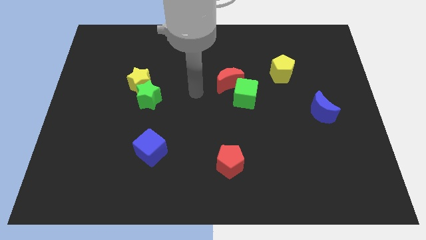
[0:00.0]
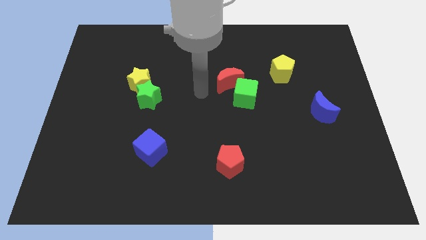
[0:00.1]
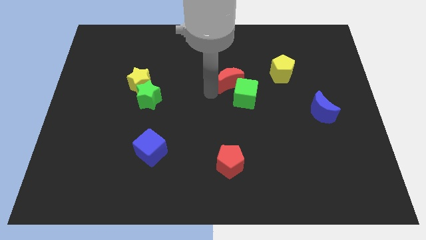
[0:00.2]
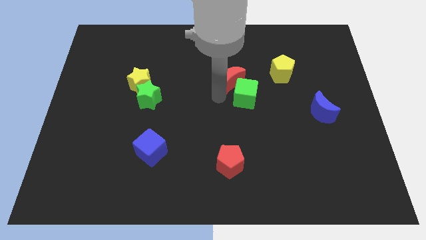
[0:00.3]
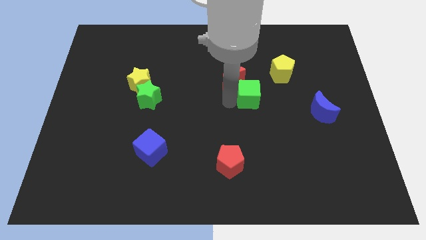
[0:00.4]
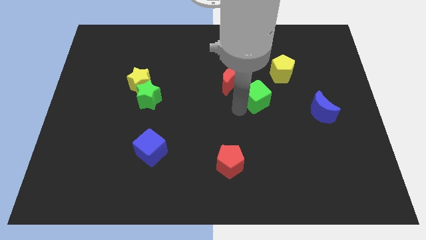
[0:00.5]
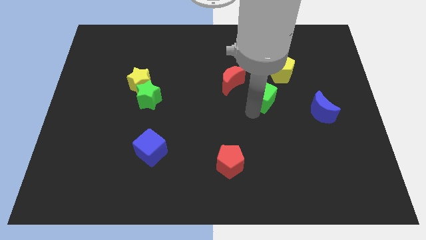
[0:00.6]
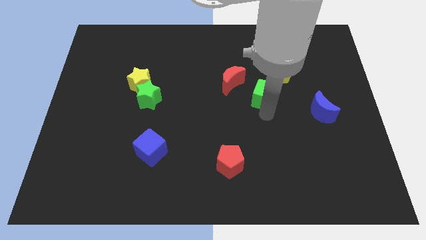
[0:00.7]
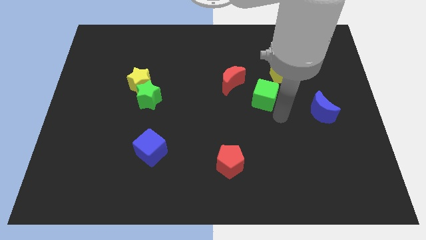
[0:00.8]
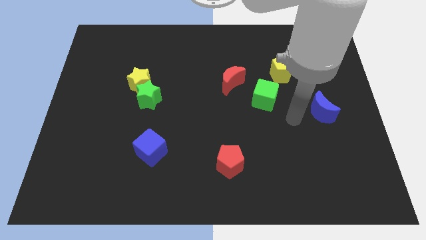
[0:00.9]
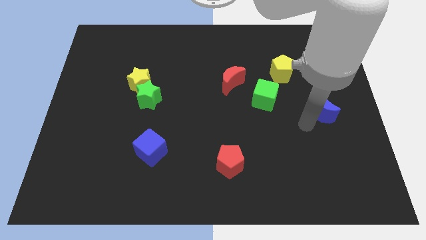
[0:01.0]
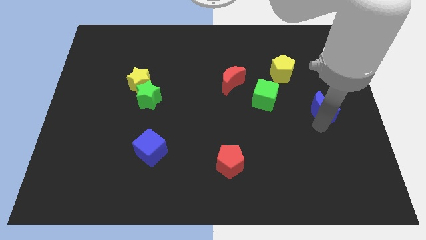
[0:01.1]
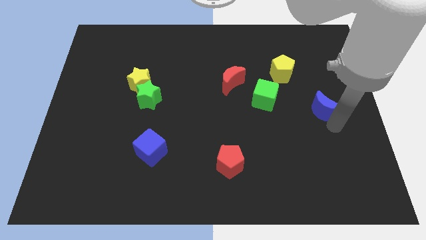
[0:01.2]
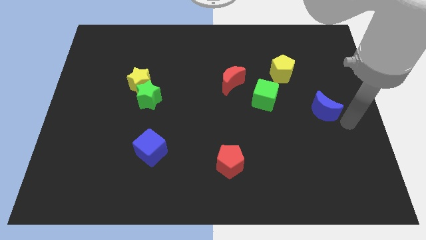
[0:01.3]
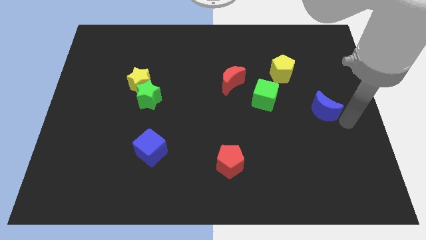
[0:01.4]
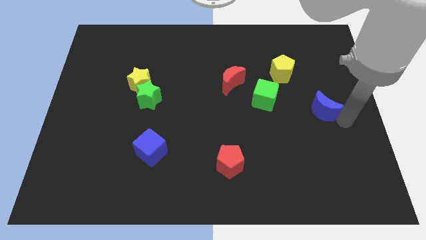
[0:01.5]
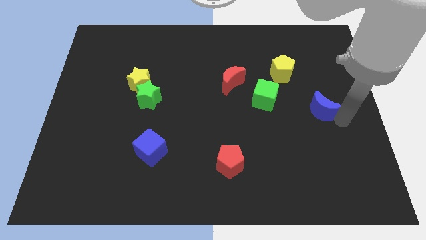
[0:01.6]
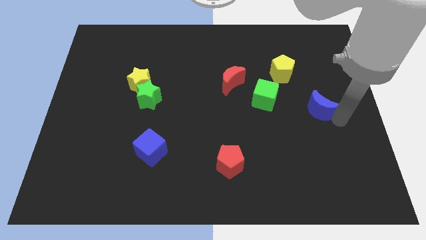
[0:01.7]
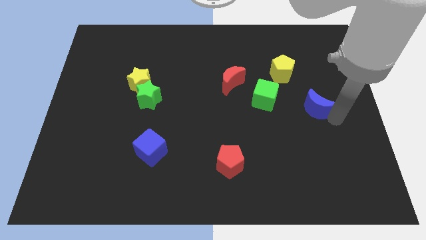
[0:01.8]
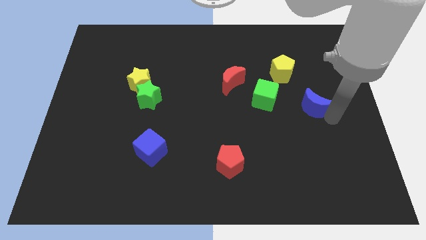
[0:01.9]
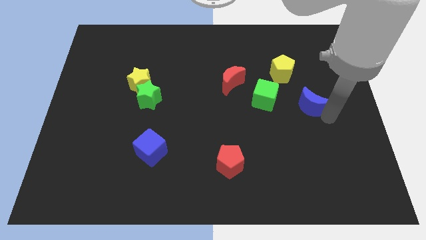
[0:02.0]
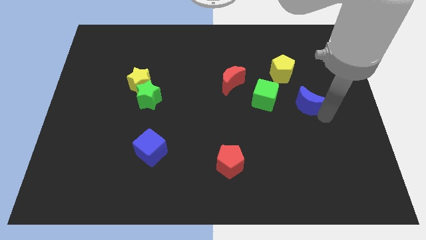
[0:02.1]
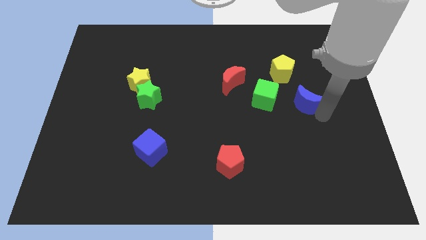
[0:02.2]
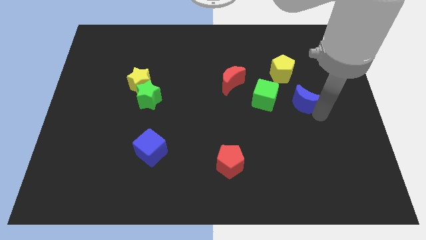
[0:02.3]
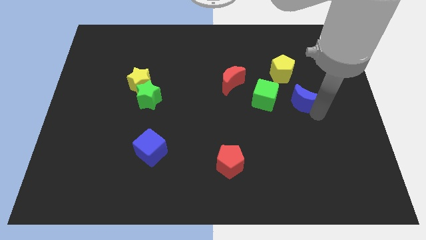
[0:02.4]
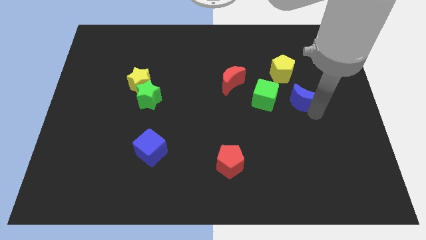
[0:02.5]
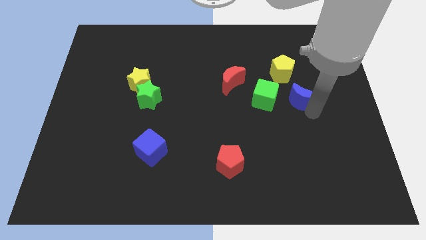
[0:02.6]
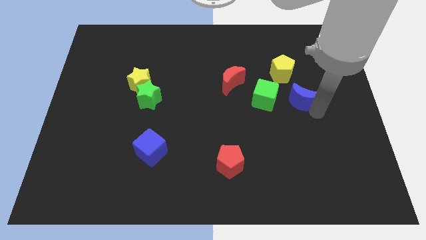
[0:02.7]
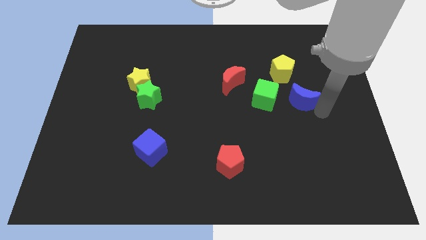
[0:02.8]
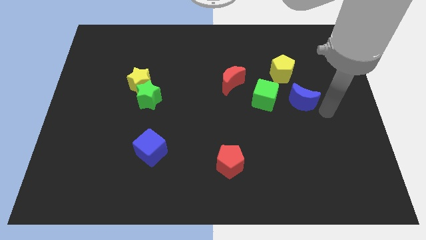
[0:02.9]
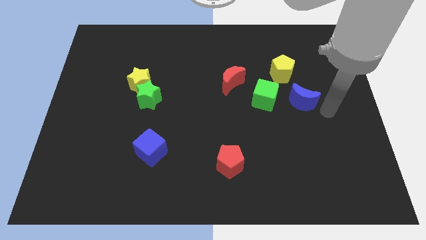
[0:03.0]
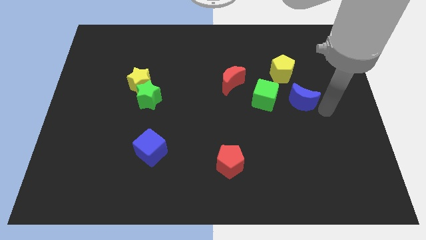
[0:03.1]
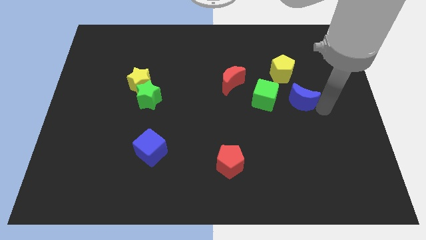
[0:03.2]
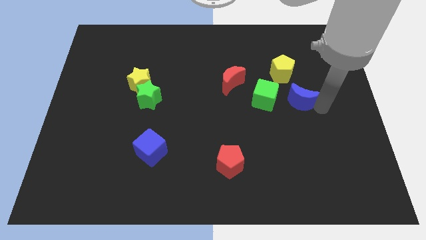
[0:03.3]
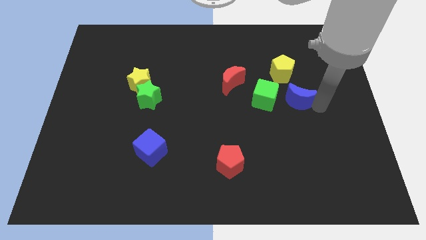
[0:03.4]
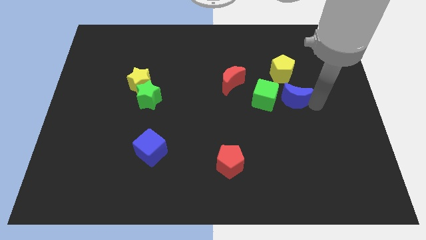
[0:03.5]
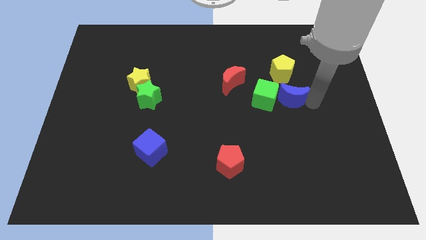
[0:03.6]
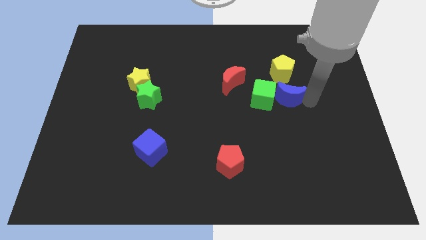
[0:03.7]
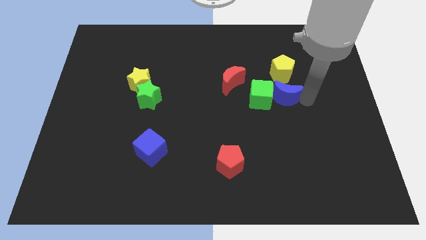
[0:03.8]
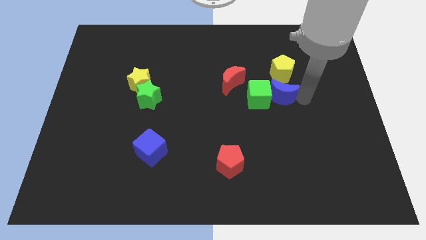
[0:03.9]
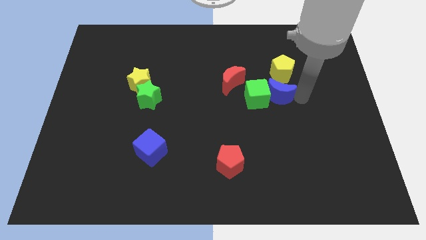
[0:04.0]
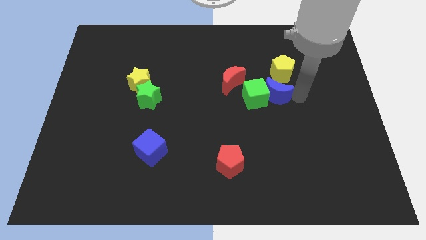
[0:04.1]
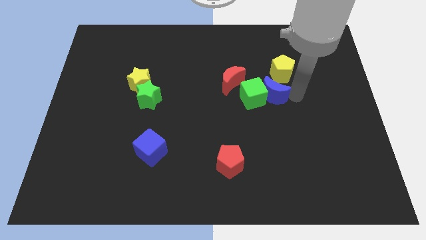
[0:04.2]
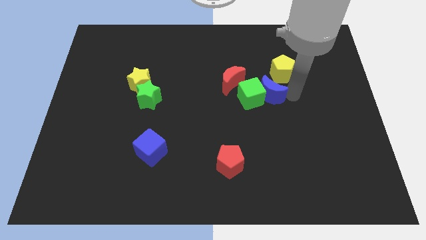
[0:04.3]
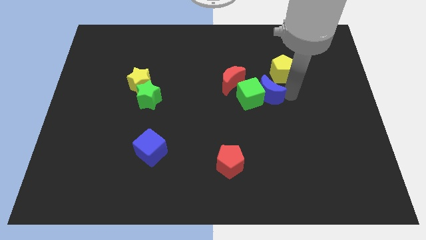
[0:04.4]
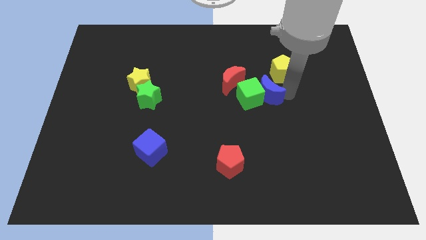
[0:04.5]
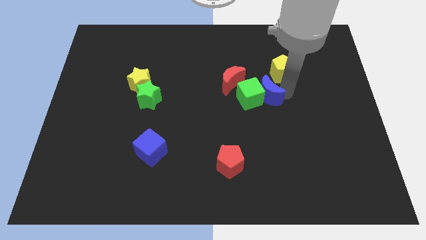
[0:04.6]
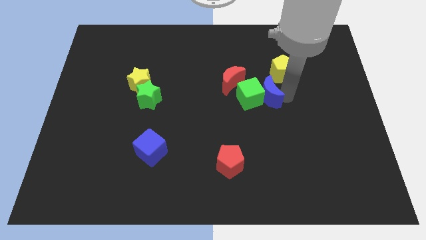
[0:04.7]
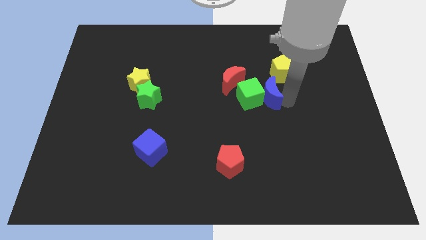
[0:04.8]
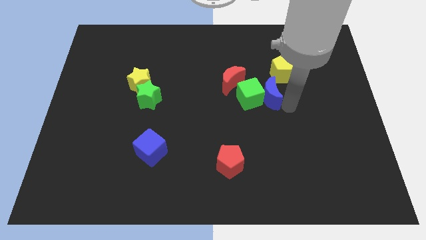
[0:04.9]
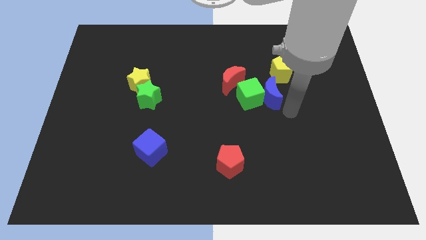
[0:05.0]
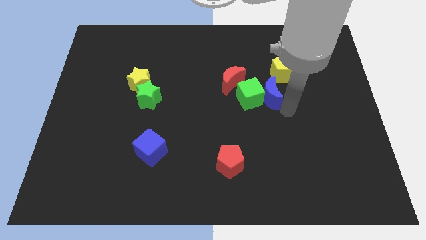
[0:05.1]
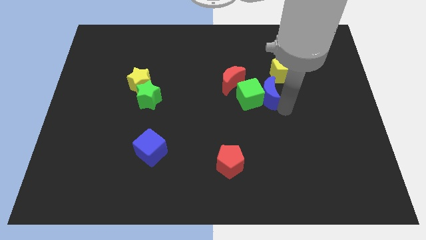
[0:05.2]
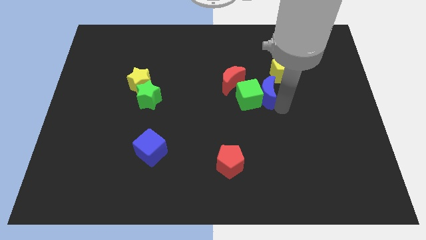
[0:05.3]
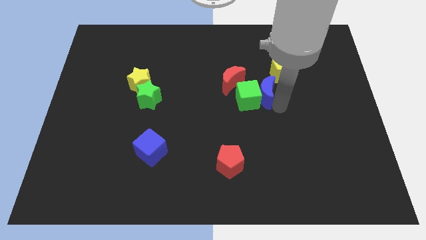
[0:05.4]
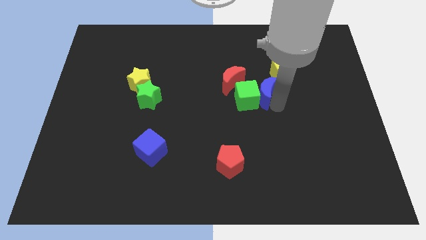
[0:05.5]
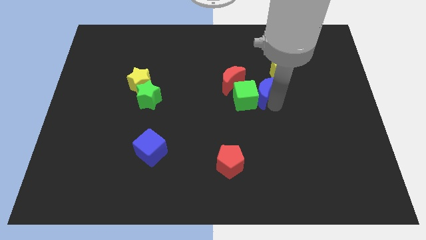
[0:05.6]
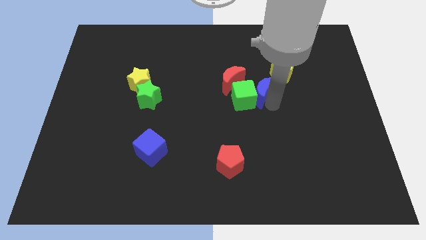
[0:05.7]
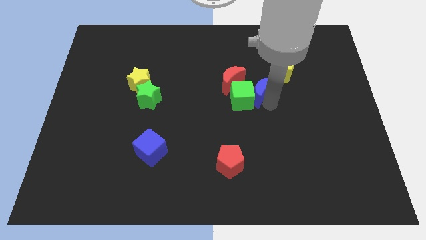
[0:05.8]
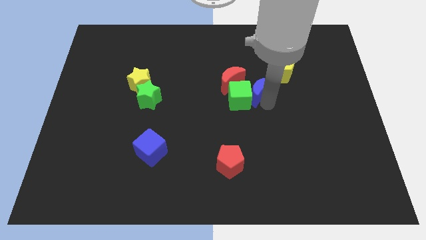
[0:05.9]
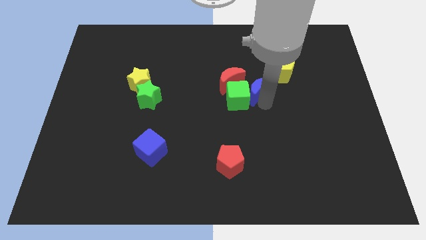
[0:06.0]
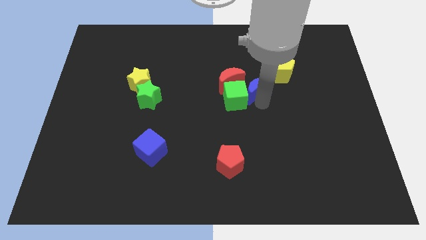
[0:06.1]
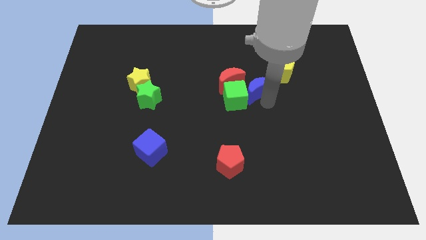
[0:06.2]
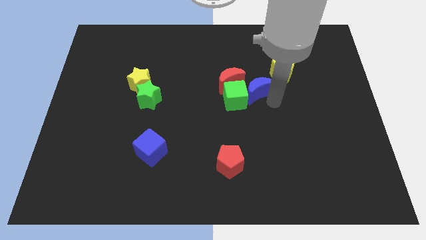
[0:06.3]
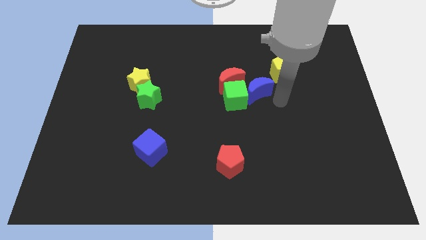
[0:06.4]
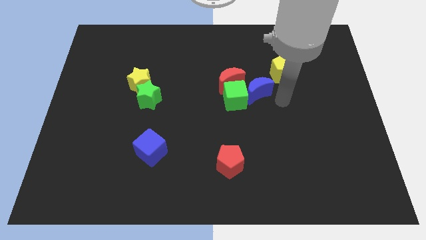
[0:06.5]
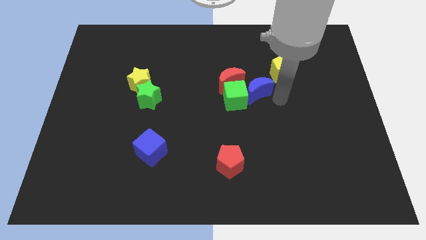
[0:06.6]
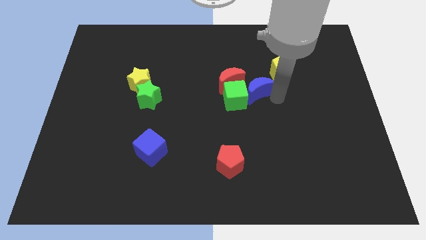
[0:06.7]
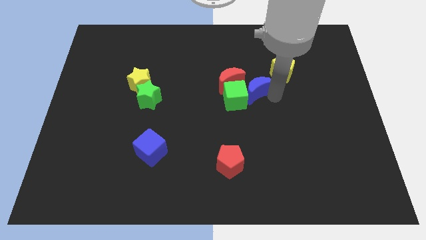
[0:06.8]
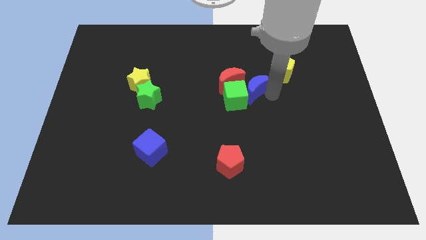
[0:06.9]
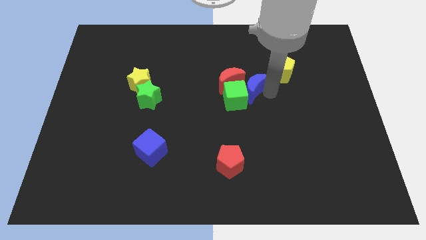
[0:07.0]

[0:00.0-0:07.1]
put the blue moon to the red moon

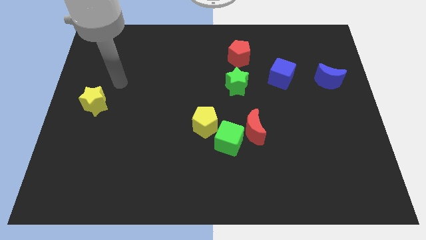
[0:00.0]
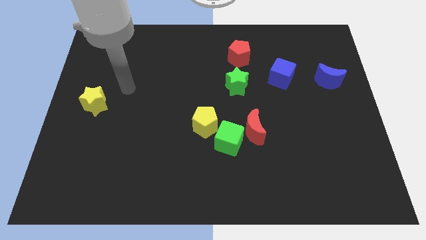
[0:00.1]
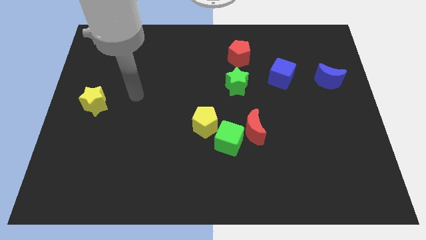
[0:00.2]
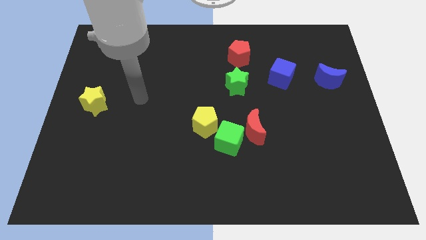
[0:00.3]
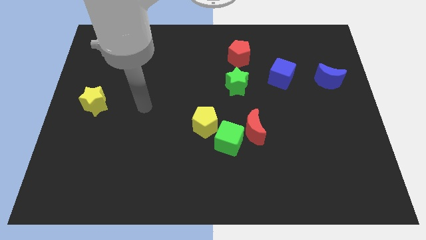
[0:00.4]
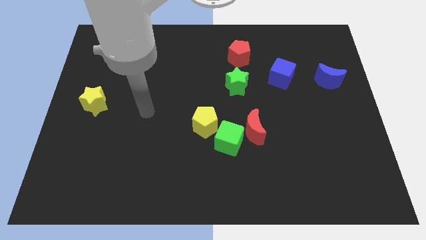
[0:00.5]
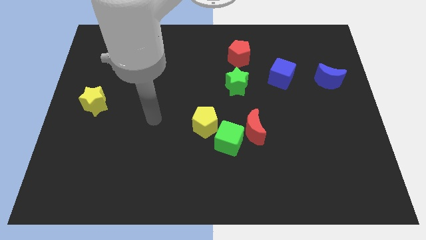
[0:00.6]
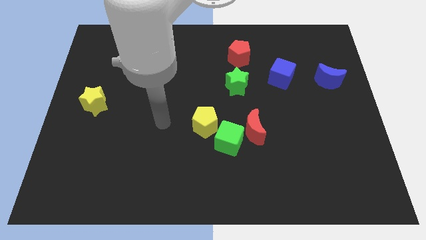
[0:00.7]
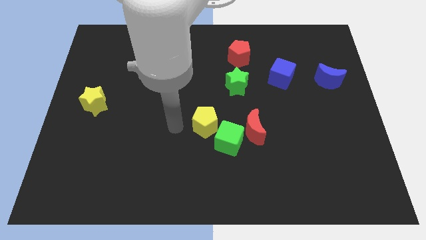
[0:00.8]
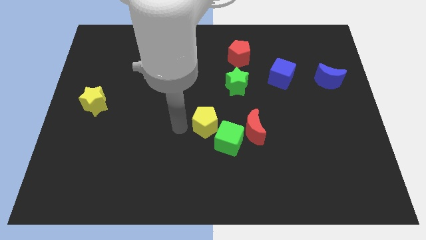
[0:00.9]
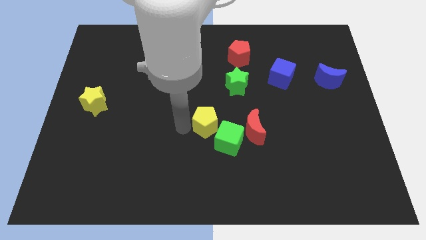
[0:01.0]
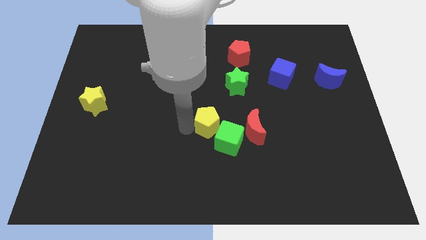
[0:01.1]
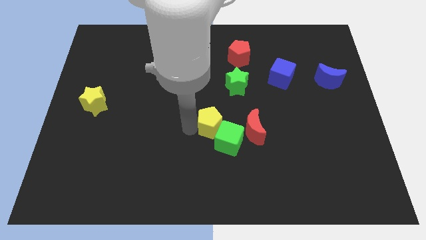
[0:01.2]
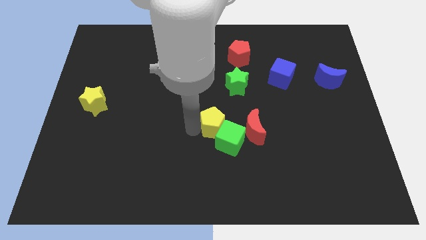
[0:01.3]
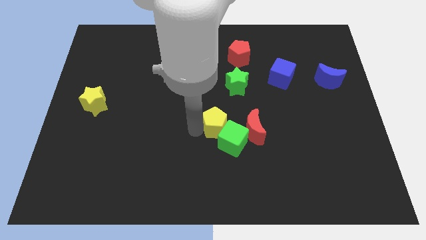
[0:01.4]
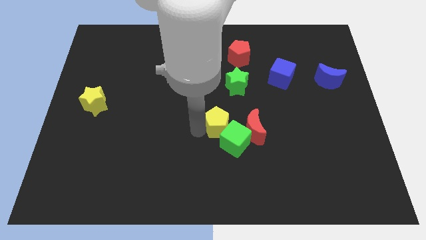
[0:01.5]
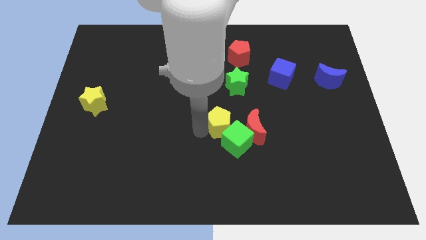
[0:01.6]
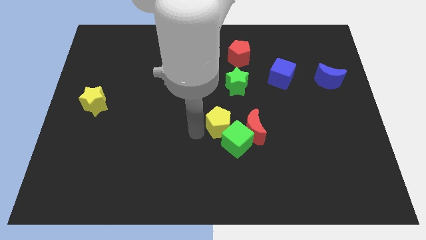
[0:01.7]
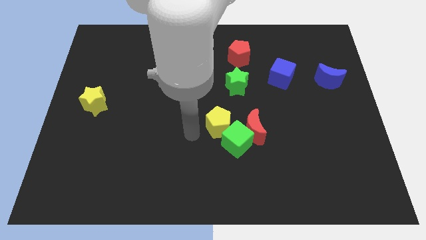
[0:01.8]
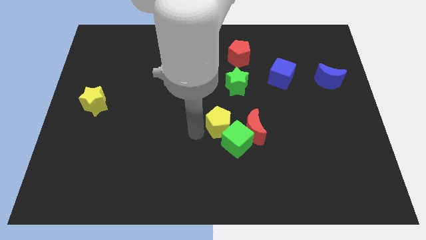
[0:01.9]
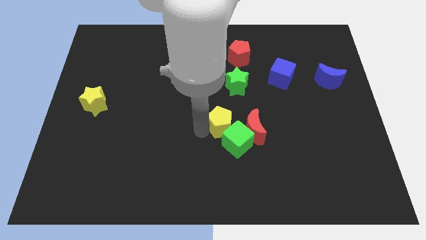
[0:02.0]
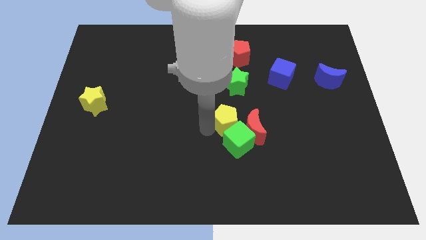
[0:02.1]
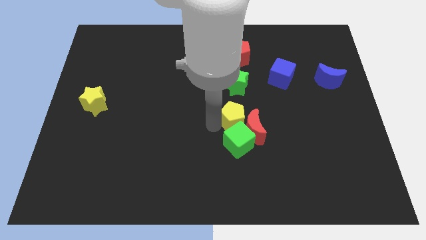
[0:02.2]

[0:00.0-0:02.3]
push the yellow pentagon to the red moon
